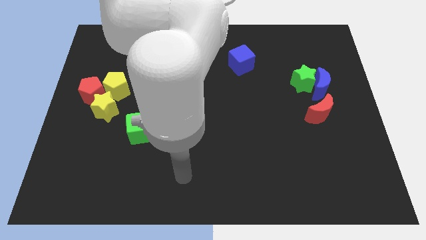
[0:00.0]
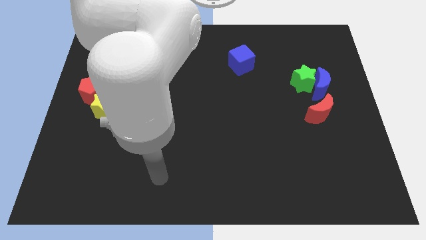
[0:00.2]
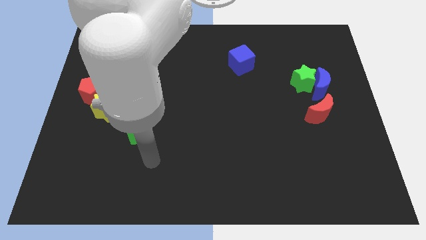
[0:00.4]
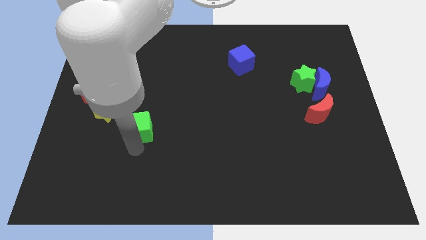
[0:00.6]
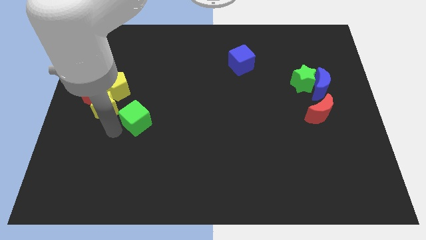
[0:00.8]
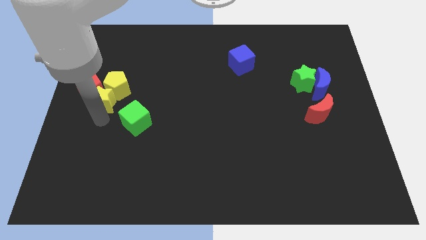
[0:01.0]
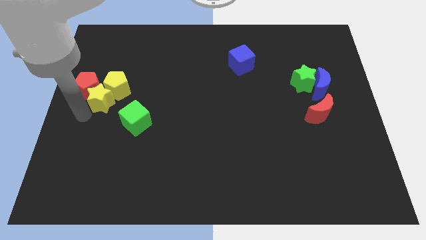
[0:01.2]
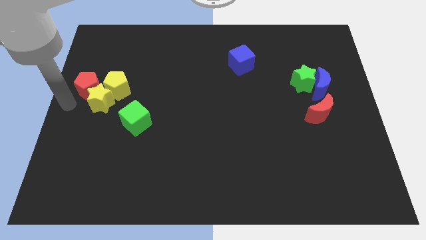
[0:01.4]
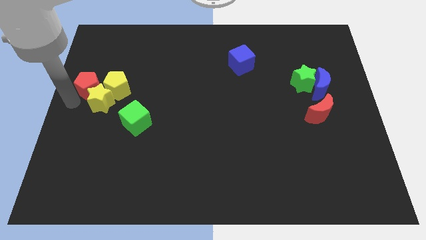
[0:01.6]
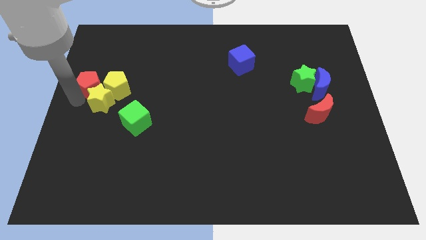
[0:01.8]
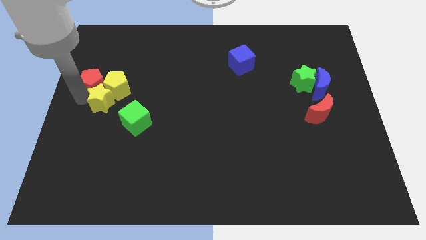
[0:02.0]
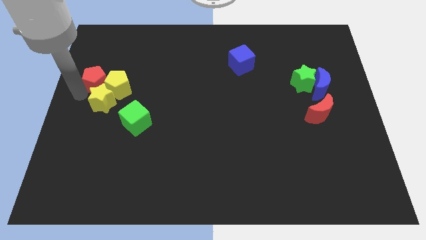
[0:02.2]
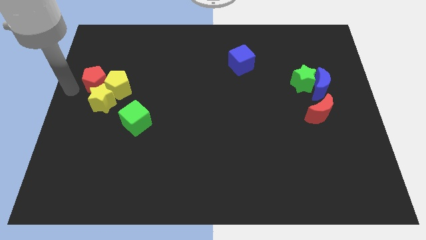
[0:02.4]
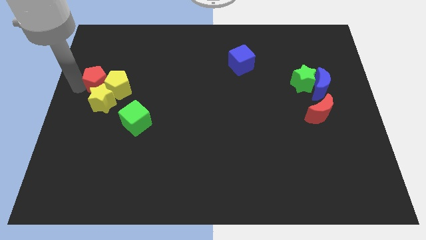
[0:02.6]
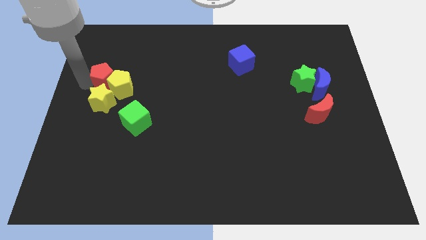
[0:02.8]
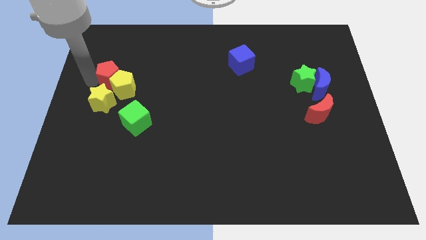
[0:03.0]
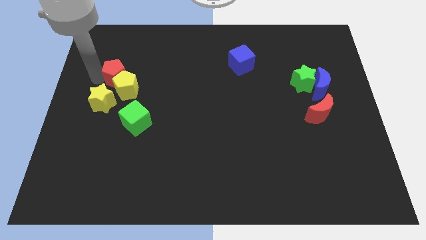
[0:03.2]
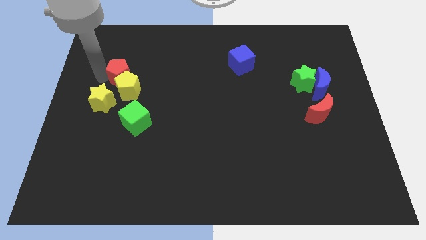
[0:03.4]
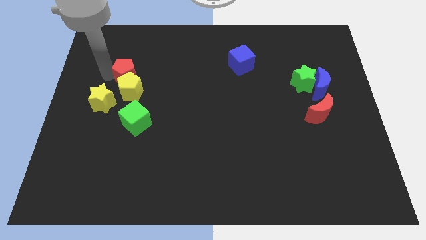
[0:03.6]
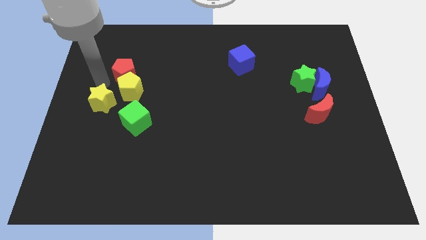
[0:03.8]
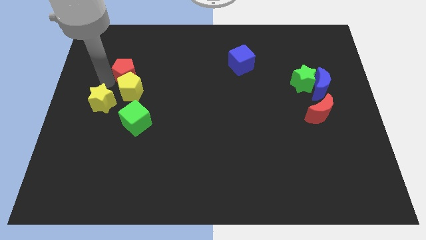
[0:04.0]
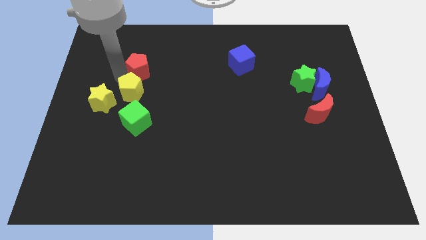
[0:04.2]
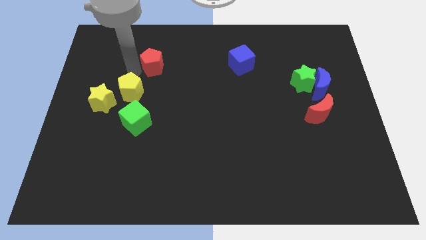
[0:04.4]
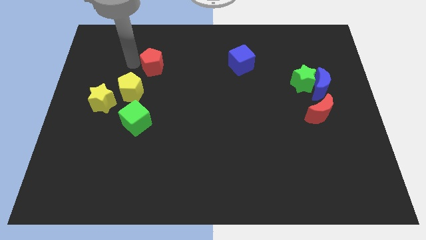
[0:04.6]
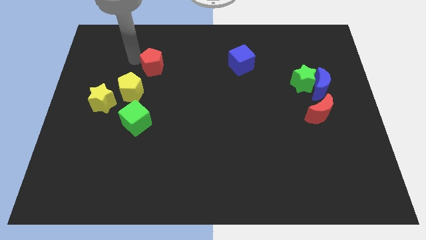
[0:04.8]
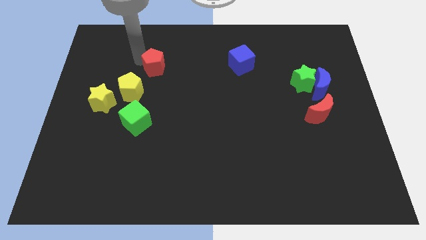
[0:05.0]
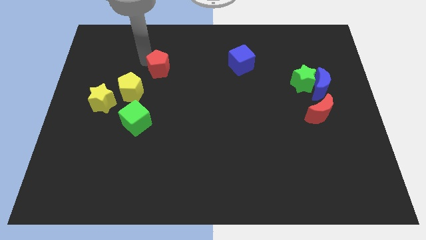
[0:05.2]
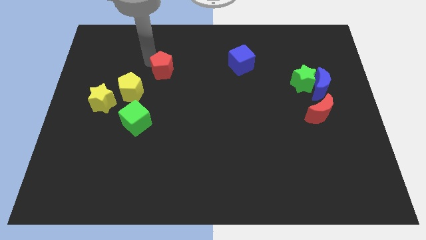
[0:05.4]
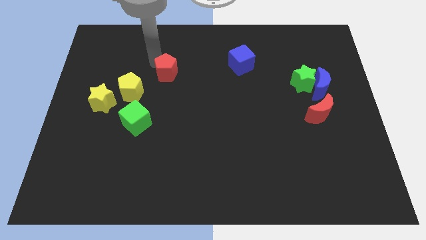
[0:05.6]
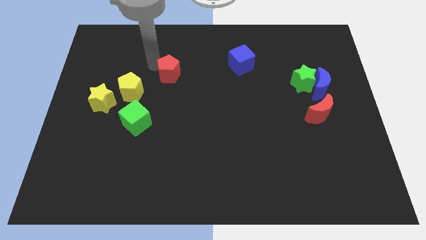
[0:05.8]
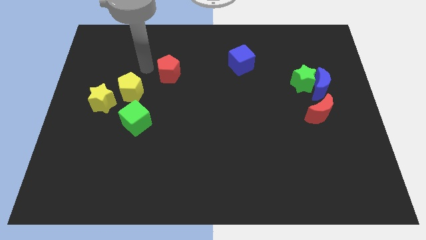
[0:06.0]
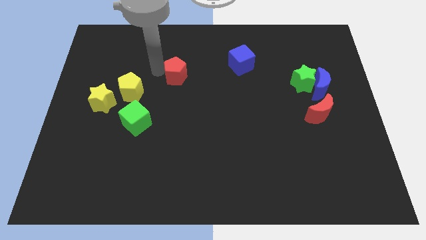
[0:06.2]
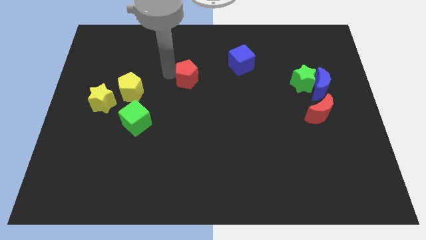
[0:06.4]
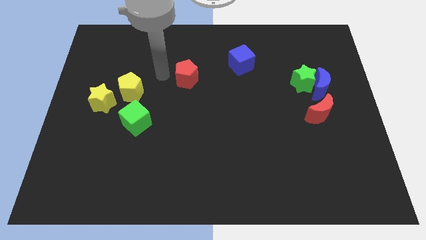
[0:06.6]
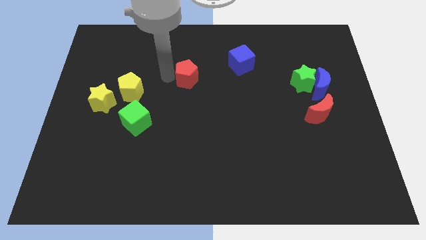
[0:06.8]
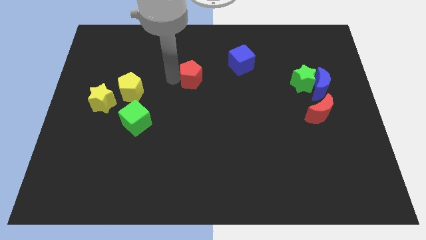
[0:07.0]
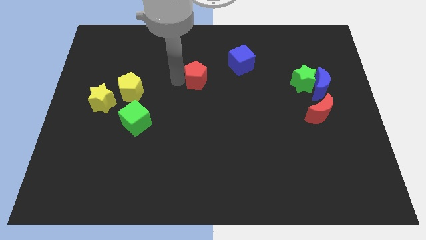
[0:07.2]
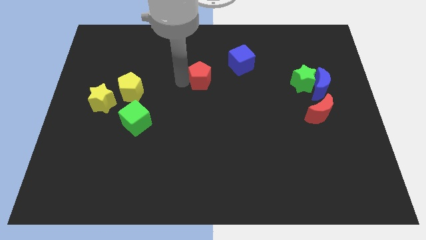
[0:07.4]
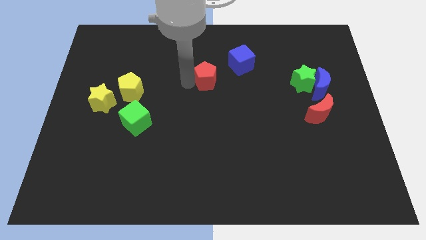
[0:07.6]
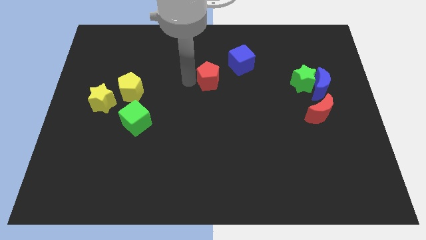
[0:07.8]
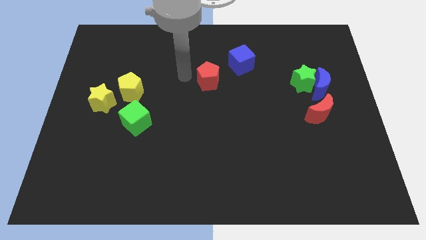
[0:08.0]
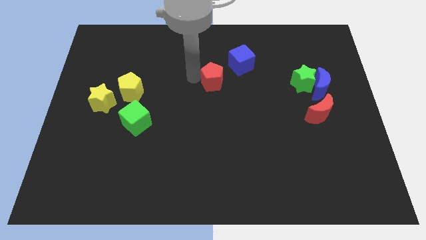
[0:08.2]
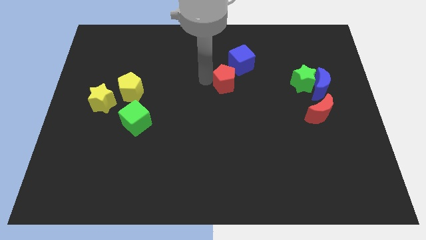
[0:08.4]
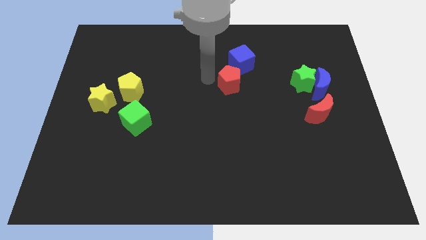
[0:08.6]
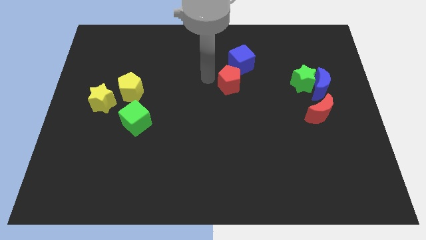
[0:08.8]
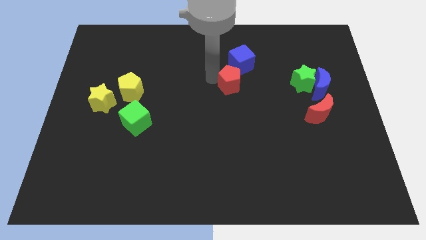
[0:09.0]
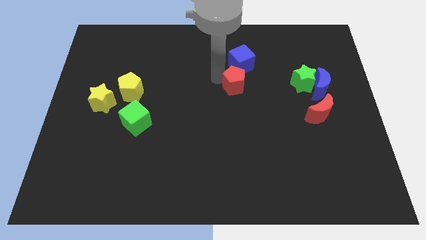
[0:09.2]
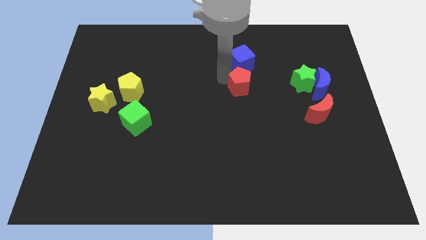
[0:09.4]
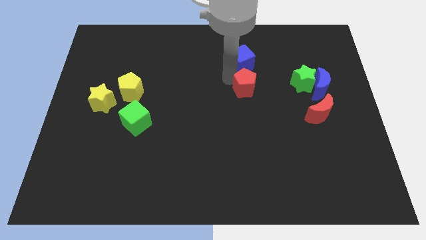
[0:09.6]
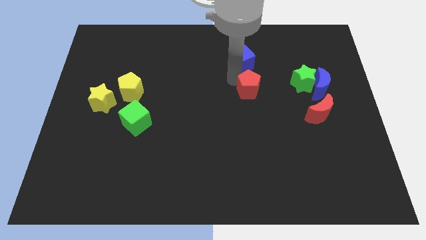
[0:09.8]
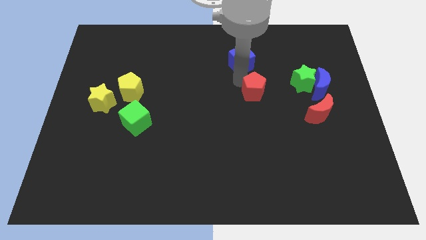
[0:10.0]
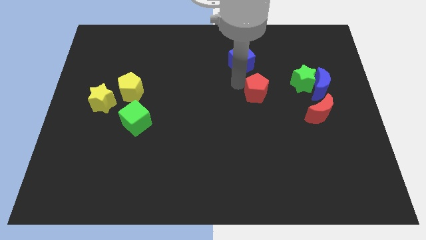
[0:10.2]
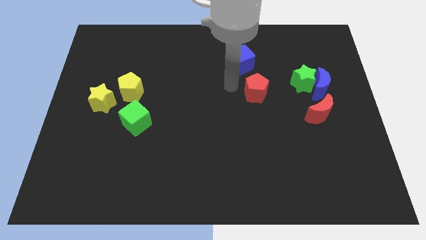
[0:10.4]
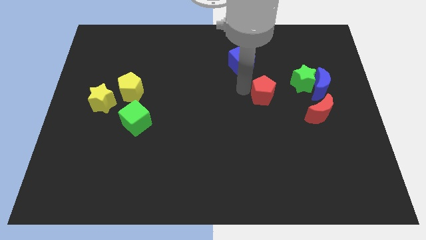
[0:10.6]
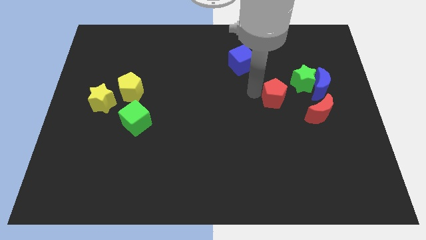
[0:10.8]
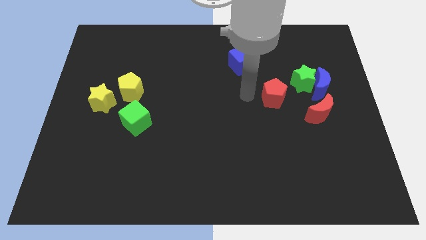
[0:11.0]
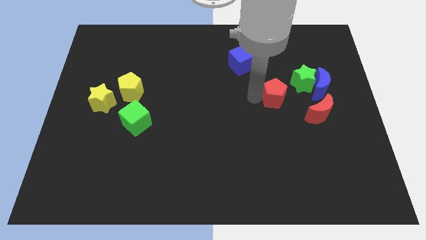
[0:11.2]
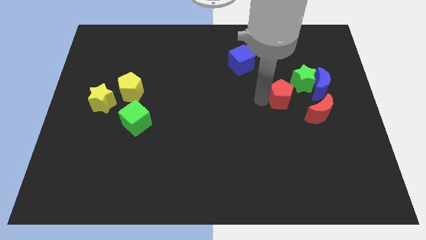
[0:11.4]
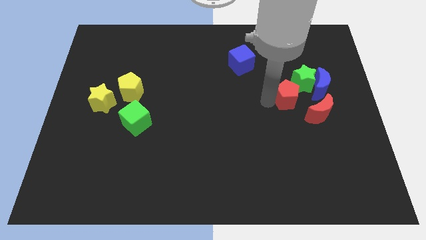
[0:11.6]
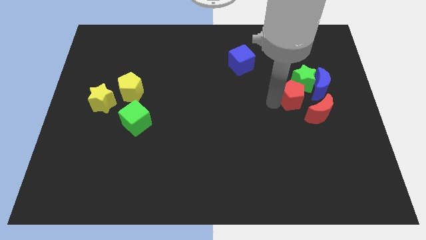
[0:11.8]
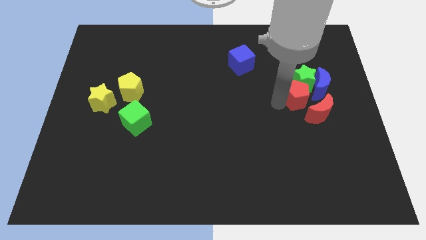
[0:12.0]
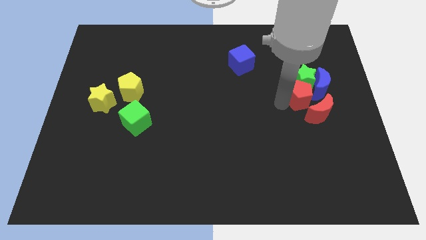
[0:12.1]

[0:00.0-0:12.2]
put the red pentagon to the bottom right side of the green star

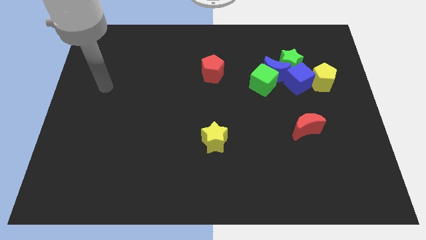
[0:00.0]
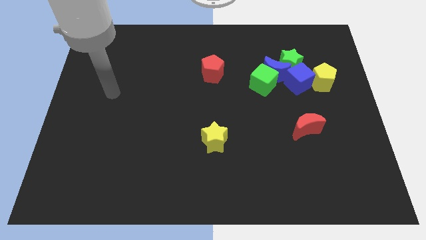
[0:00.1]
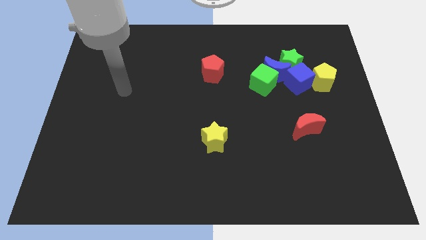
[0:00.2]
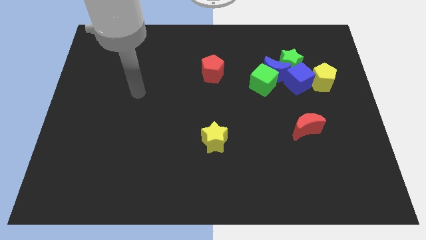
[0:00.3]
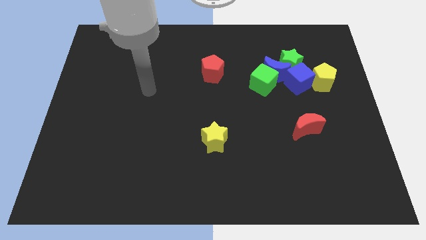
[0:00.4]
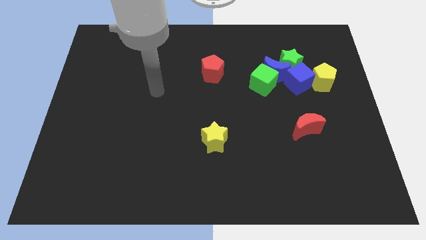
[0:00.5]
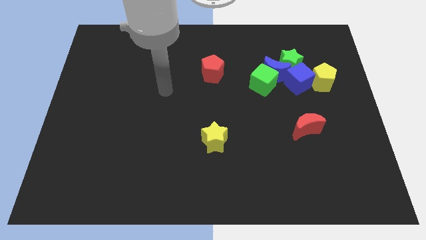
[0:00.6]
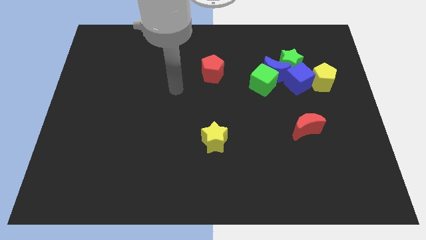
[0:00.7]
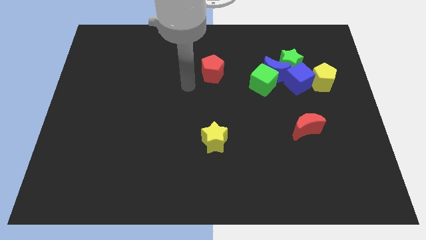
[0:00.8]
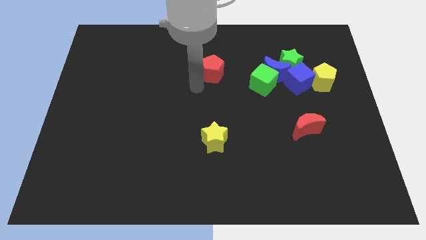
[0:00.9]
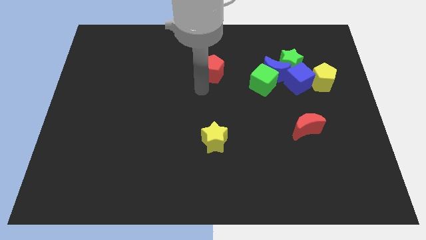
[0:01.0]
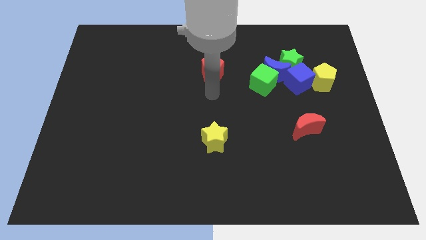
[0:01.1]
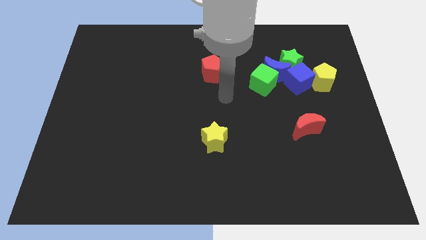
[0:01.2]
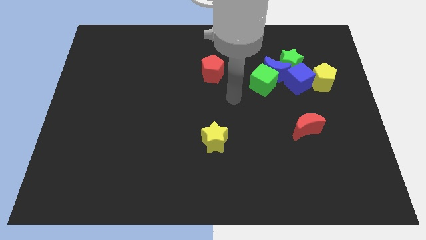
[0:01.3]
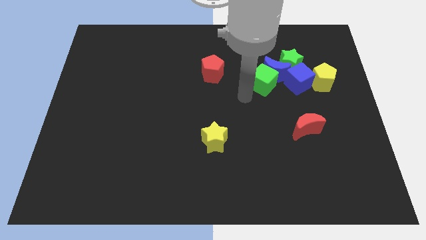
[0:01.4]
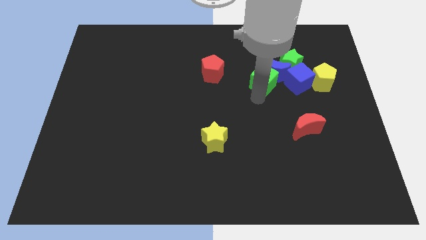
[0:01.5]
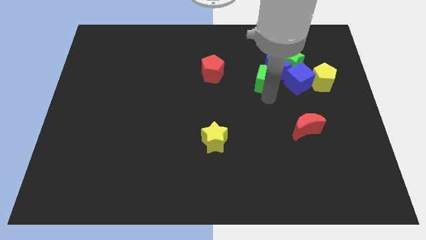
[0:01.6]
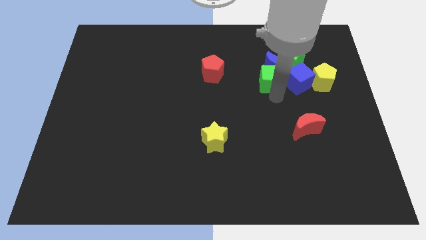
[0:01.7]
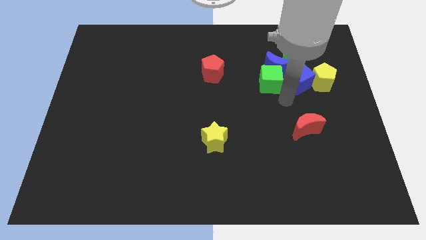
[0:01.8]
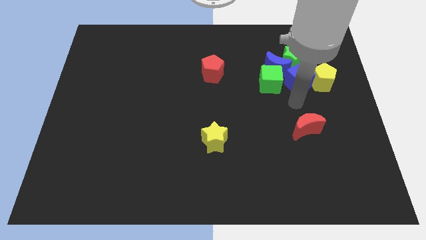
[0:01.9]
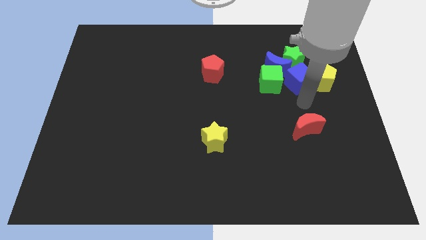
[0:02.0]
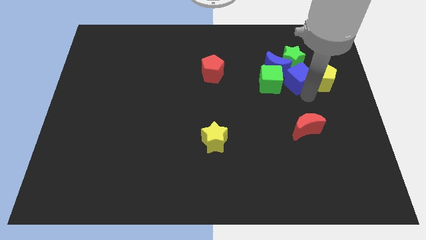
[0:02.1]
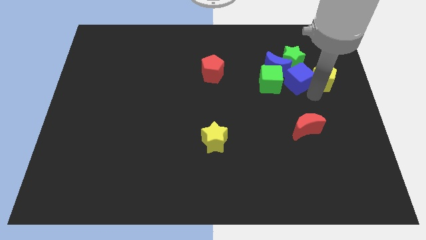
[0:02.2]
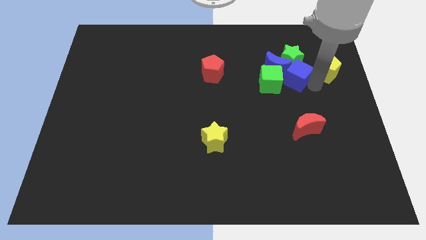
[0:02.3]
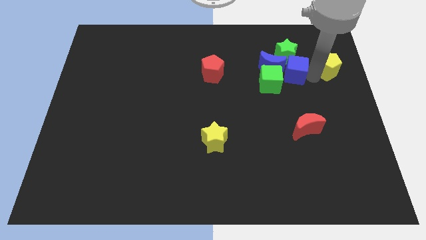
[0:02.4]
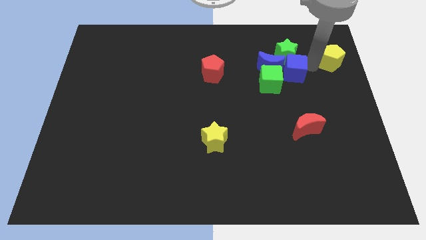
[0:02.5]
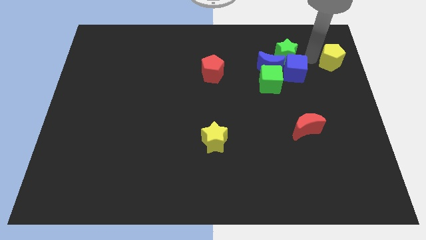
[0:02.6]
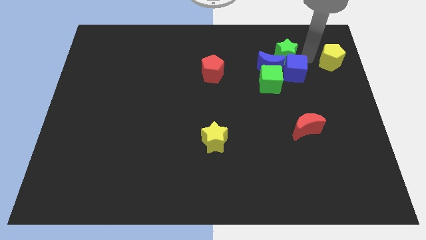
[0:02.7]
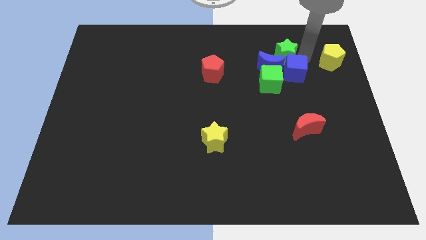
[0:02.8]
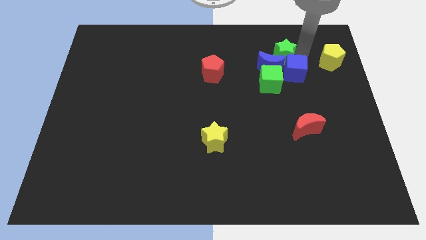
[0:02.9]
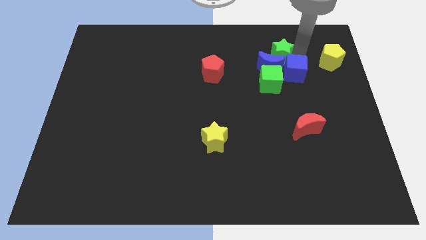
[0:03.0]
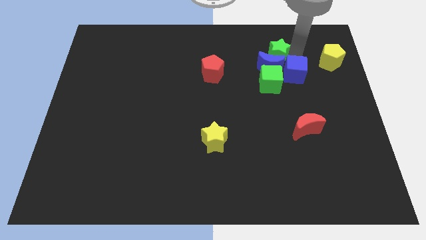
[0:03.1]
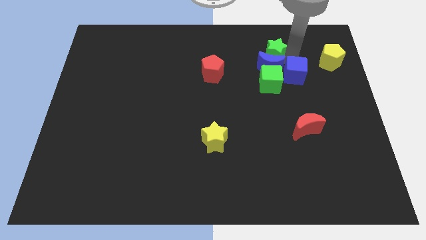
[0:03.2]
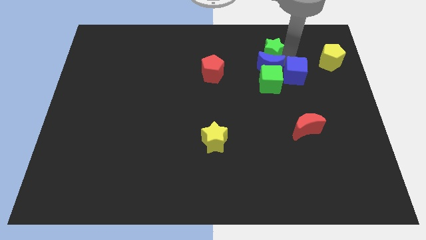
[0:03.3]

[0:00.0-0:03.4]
slide the green star to the top left side of the blue moon
